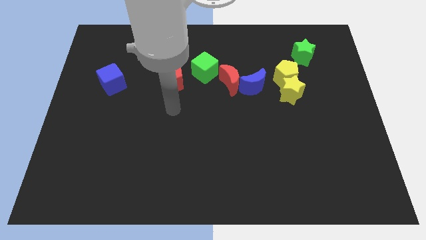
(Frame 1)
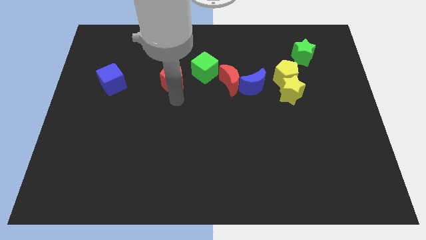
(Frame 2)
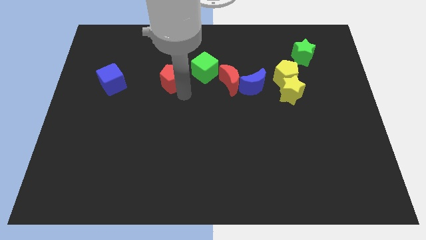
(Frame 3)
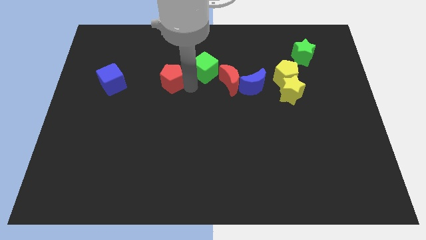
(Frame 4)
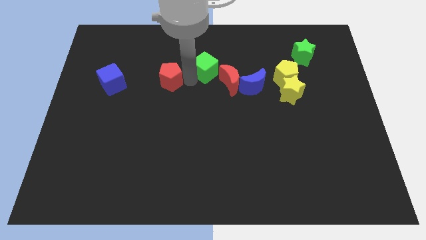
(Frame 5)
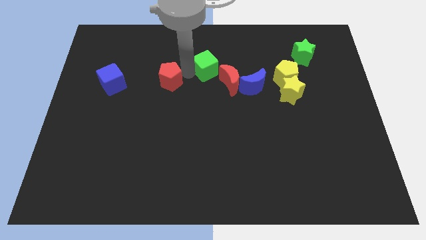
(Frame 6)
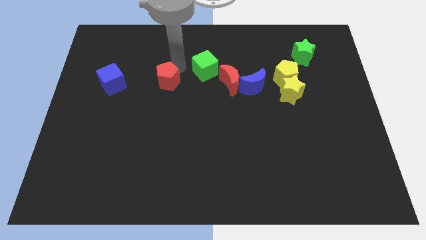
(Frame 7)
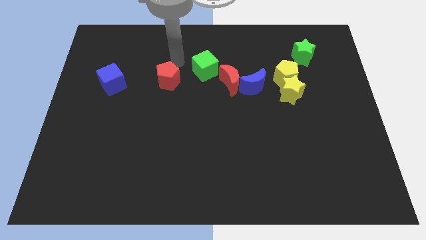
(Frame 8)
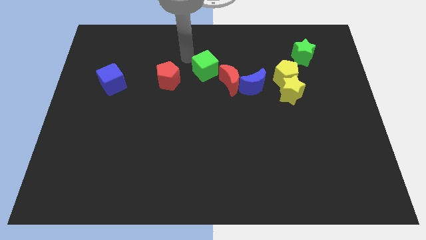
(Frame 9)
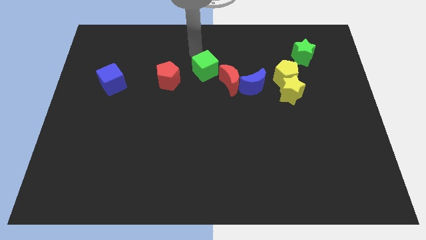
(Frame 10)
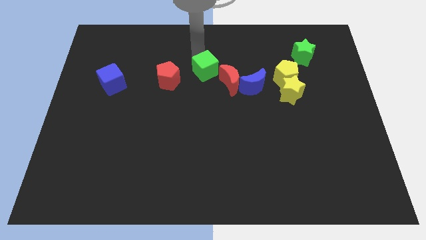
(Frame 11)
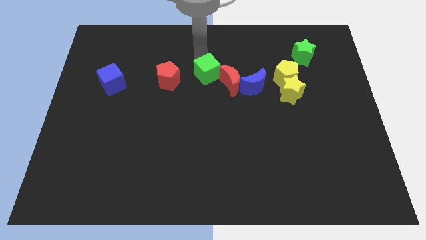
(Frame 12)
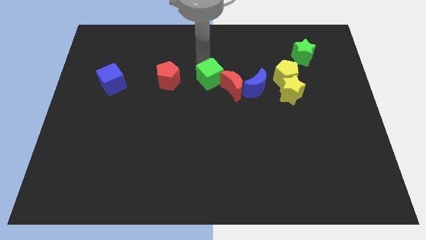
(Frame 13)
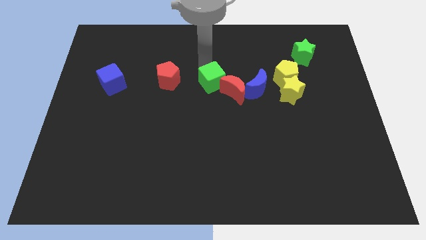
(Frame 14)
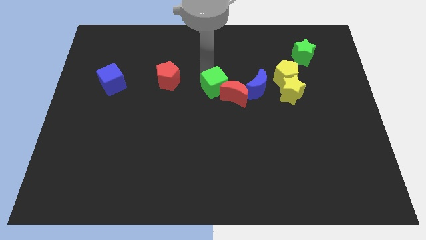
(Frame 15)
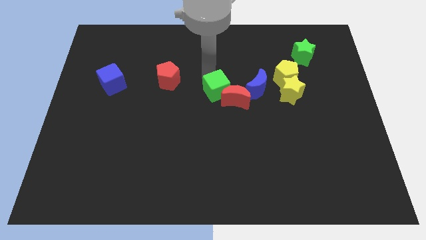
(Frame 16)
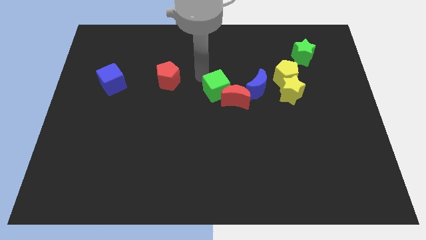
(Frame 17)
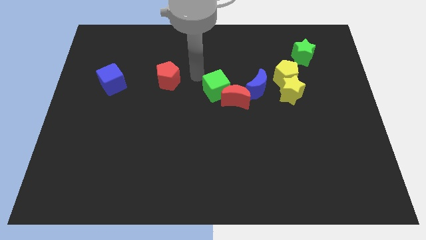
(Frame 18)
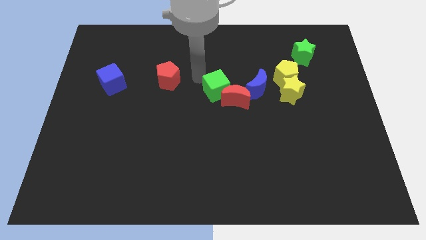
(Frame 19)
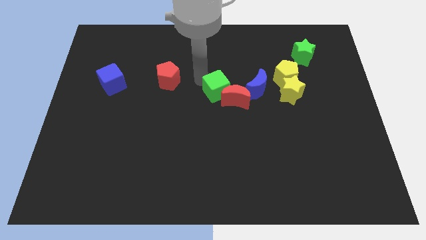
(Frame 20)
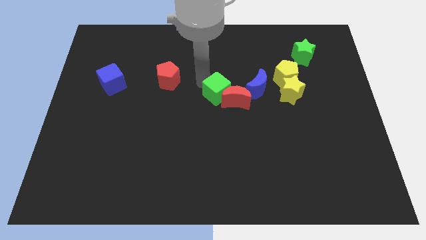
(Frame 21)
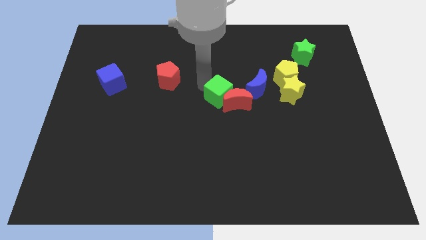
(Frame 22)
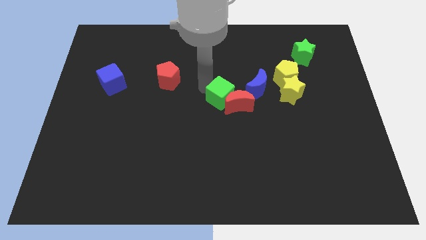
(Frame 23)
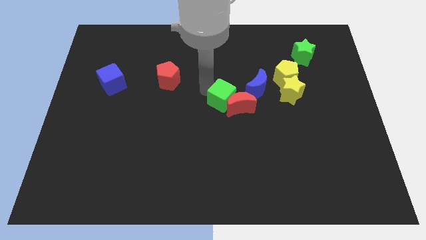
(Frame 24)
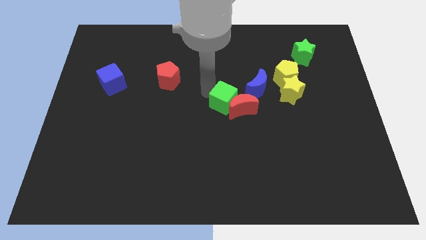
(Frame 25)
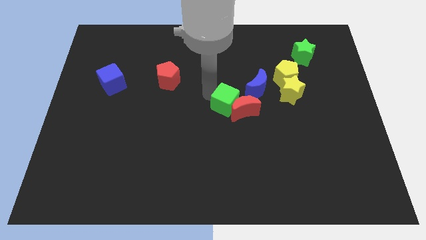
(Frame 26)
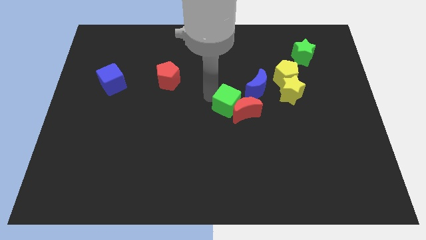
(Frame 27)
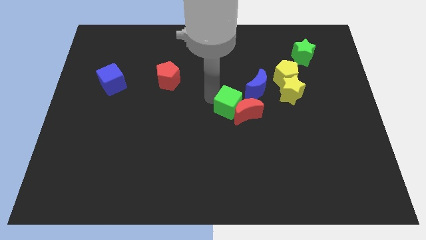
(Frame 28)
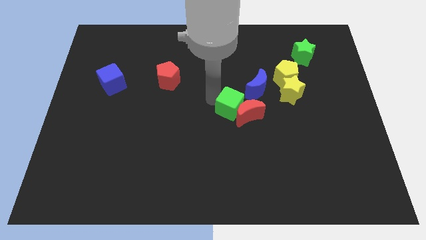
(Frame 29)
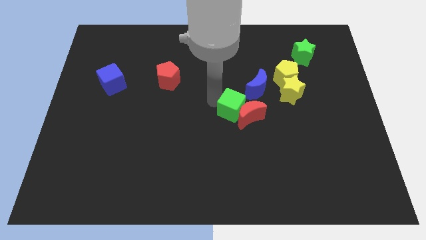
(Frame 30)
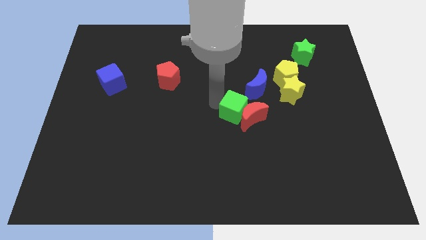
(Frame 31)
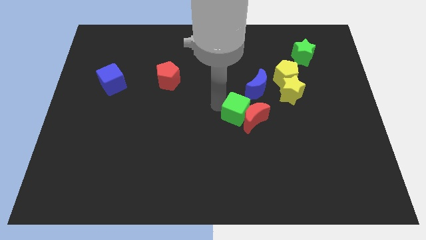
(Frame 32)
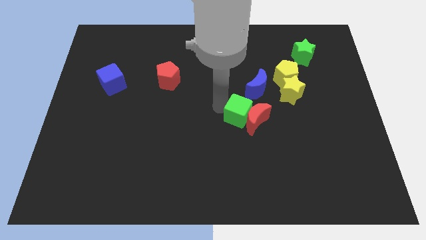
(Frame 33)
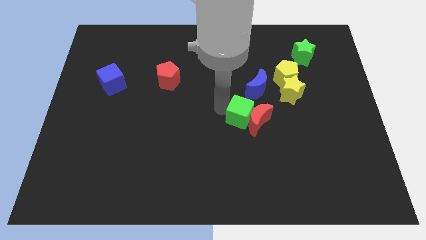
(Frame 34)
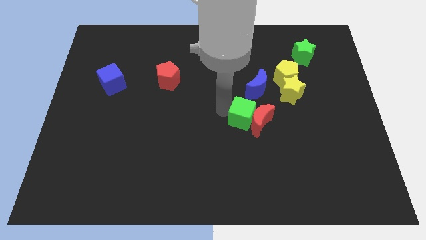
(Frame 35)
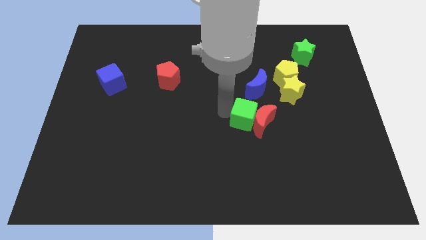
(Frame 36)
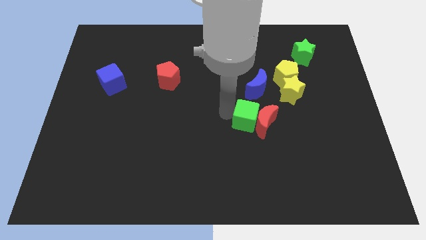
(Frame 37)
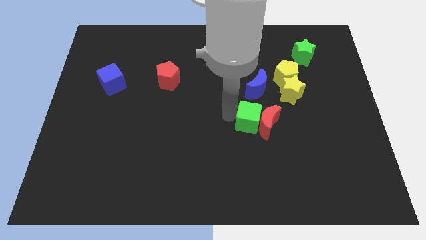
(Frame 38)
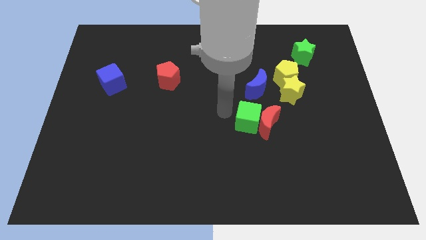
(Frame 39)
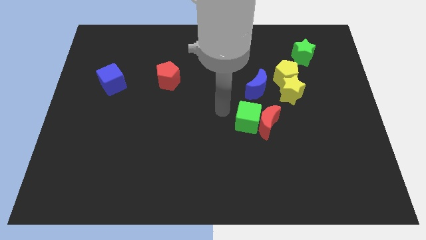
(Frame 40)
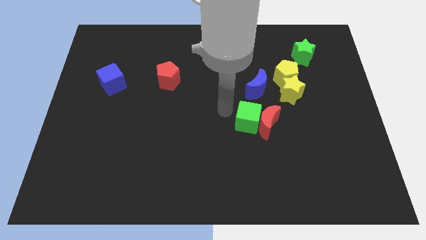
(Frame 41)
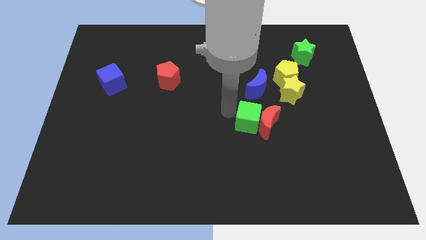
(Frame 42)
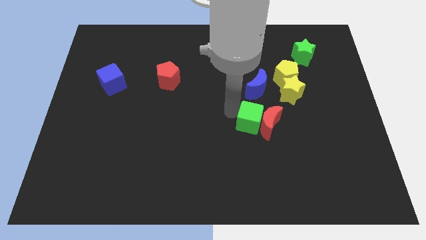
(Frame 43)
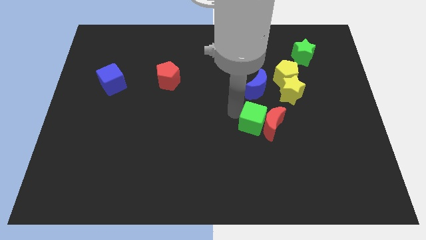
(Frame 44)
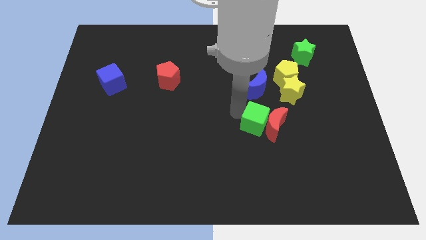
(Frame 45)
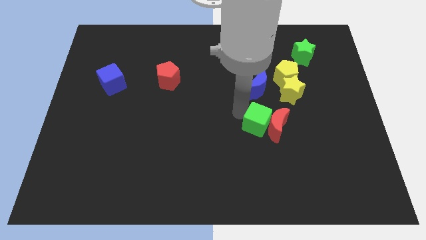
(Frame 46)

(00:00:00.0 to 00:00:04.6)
move the green cube downwards and right

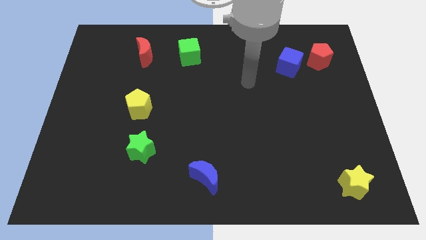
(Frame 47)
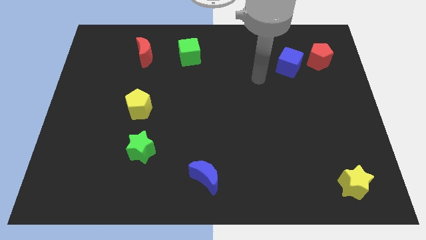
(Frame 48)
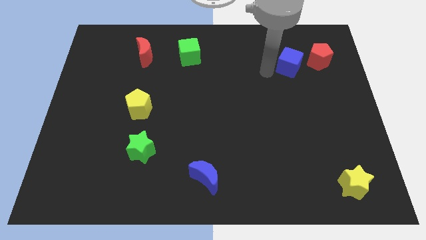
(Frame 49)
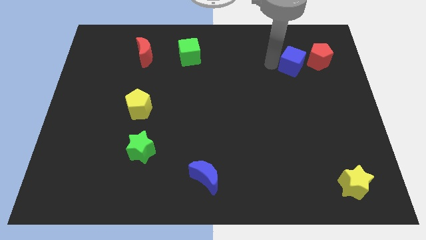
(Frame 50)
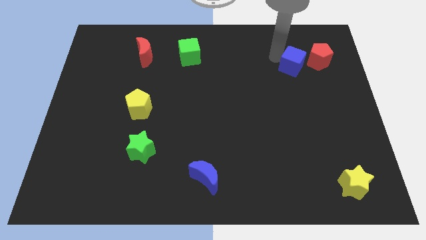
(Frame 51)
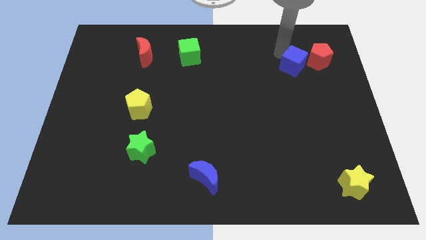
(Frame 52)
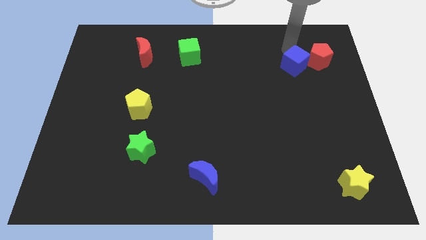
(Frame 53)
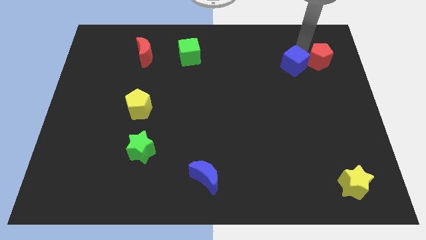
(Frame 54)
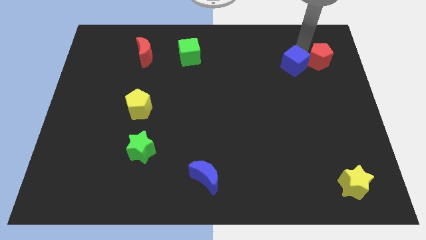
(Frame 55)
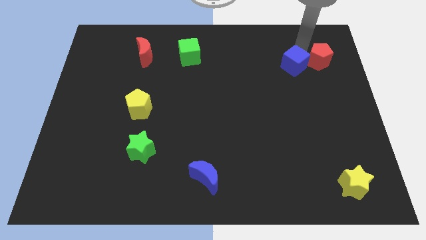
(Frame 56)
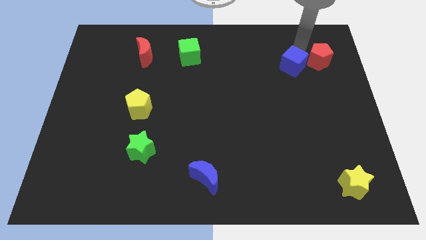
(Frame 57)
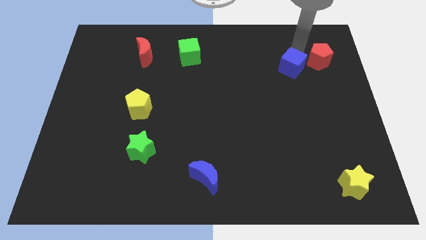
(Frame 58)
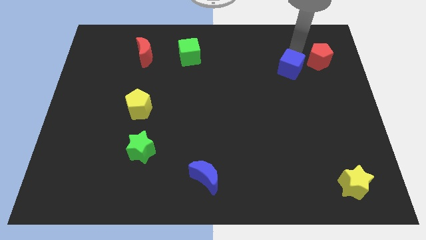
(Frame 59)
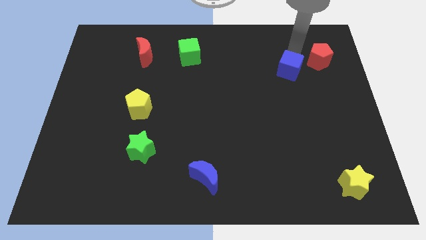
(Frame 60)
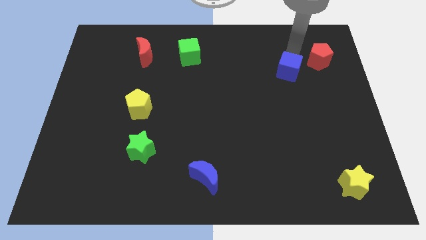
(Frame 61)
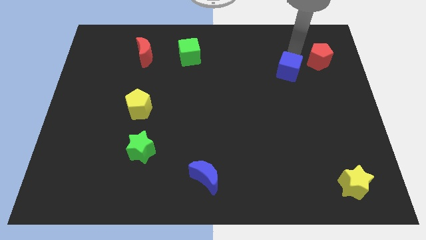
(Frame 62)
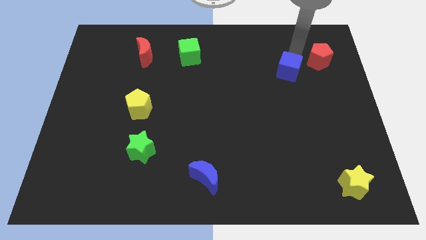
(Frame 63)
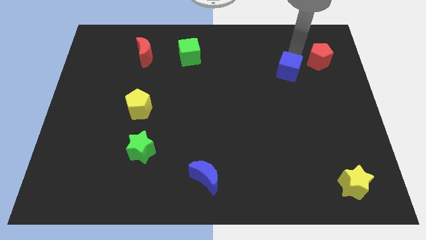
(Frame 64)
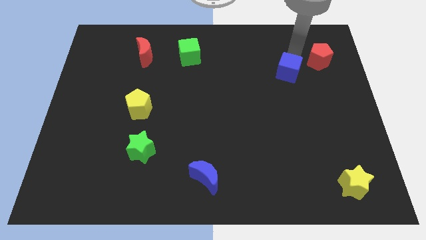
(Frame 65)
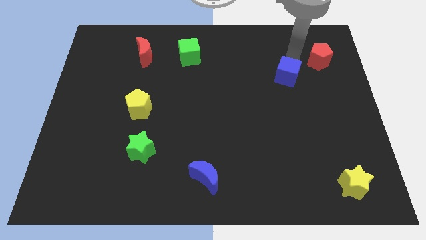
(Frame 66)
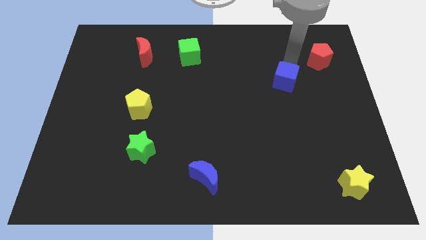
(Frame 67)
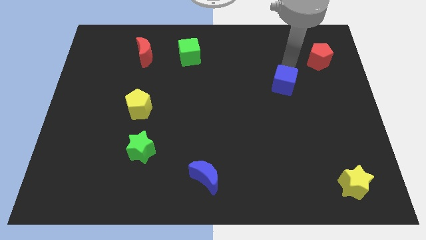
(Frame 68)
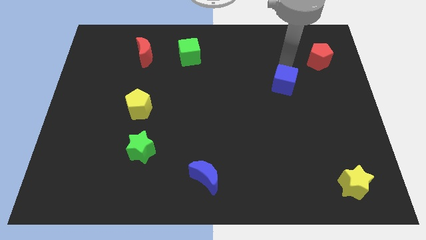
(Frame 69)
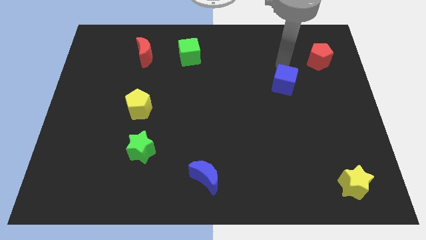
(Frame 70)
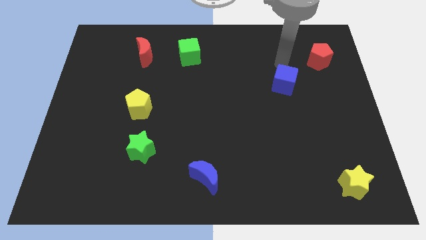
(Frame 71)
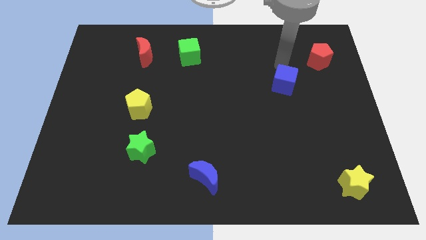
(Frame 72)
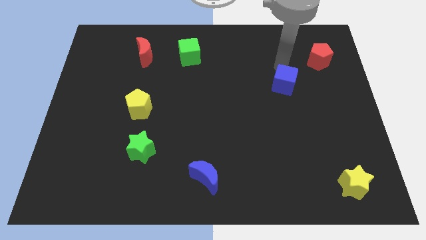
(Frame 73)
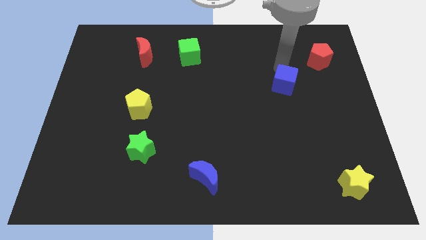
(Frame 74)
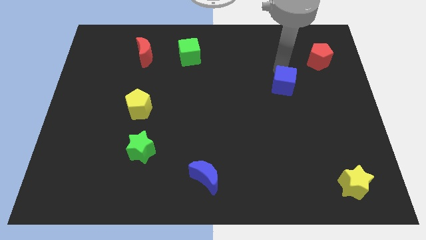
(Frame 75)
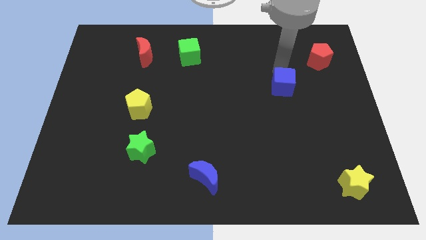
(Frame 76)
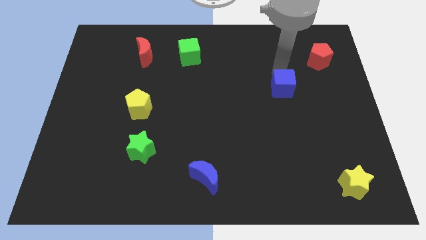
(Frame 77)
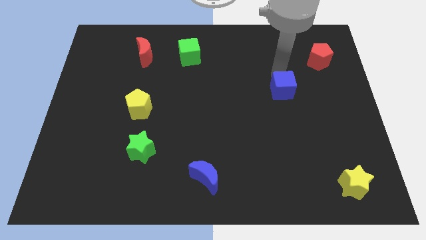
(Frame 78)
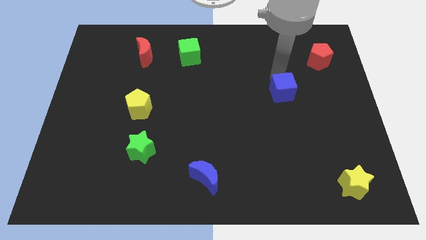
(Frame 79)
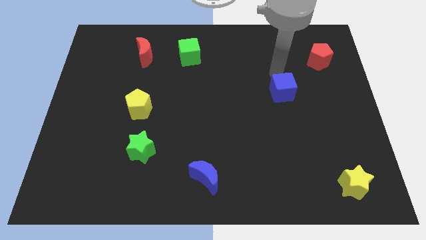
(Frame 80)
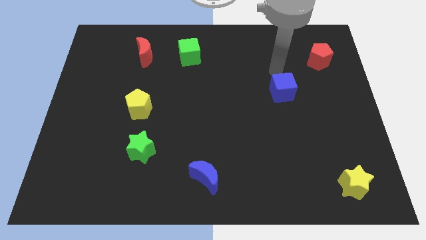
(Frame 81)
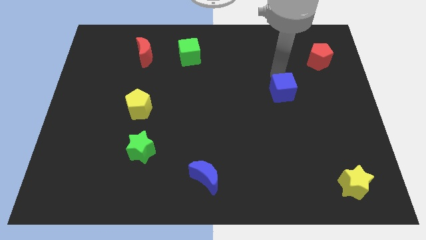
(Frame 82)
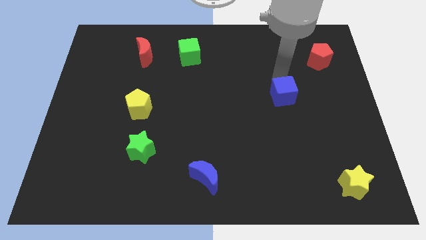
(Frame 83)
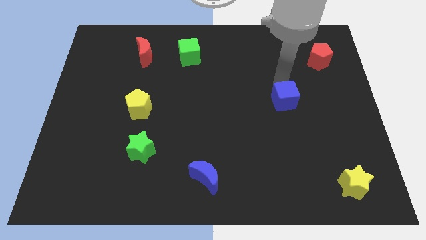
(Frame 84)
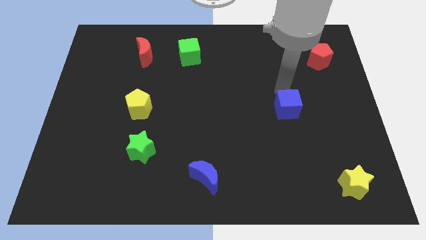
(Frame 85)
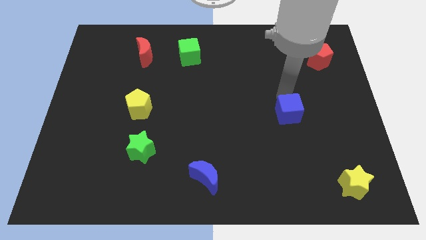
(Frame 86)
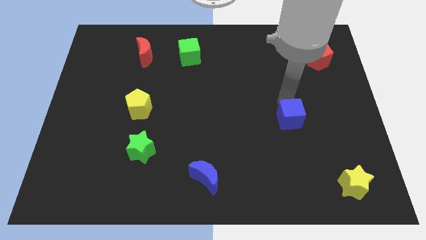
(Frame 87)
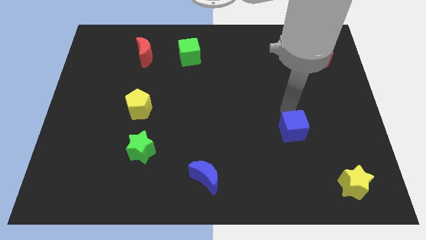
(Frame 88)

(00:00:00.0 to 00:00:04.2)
push the blue cube down
